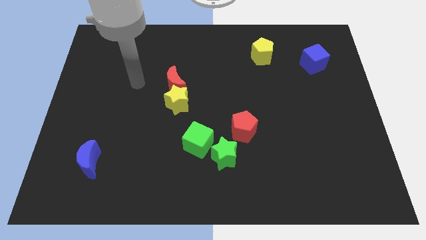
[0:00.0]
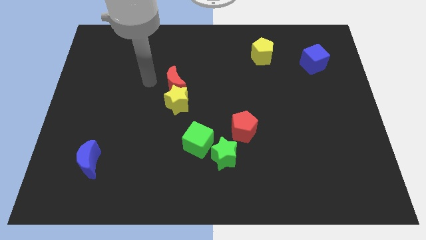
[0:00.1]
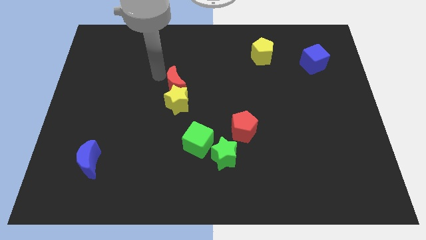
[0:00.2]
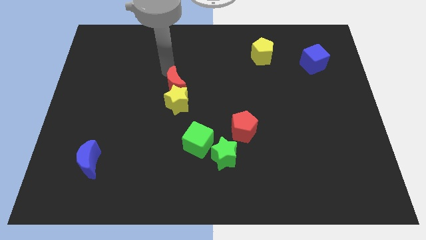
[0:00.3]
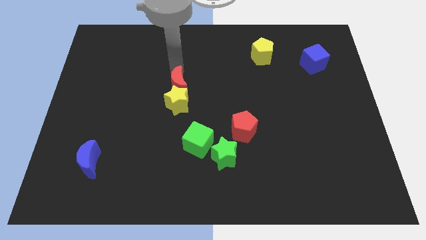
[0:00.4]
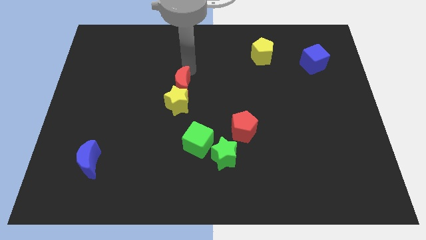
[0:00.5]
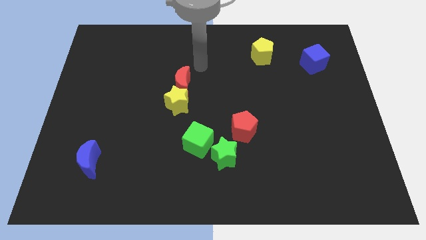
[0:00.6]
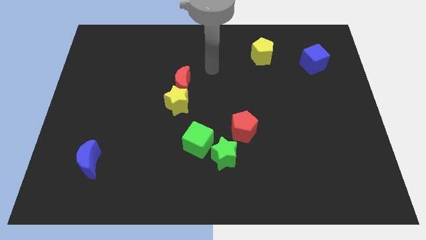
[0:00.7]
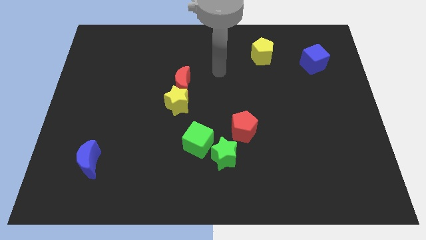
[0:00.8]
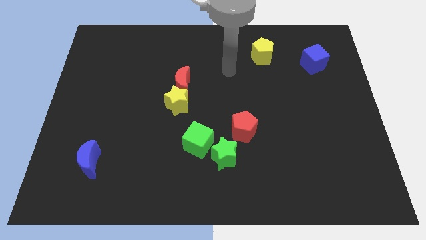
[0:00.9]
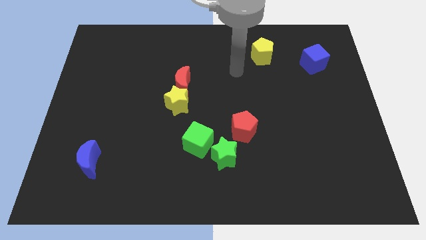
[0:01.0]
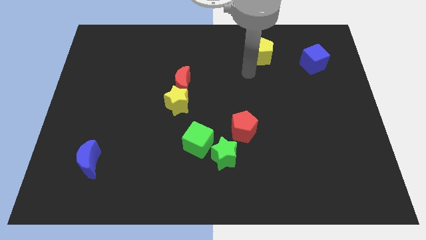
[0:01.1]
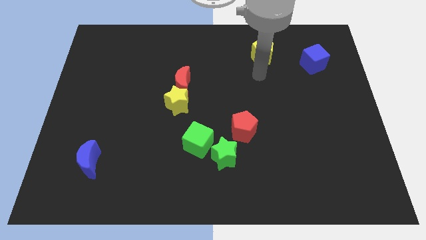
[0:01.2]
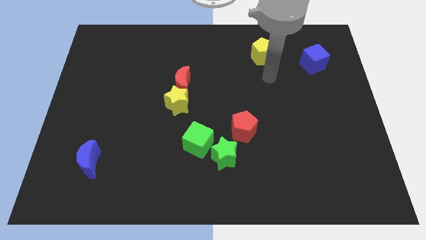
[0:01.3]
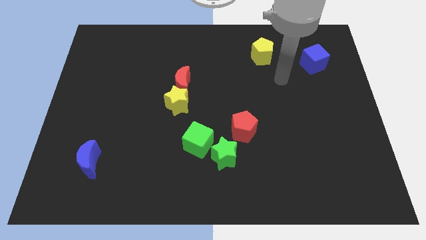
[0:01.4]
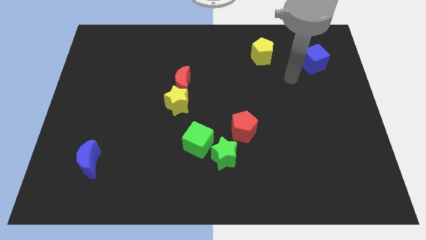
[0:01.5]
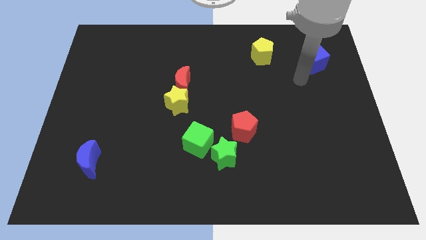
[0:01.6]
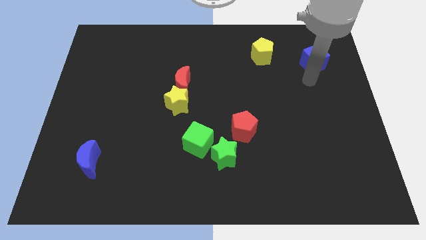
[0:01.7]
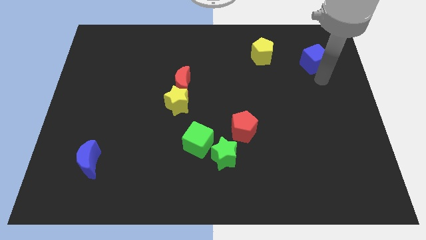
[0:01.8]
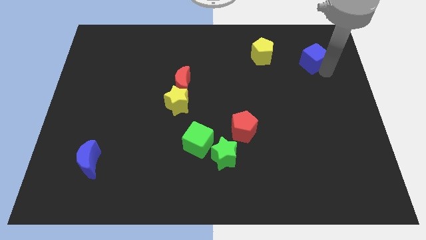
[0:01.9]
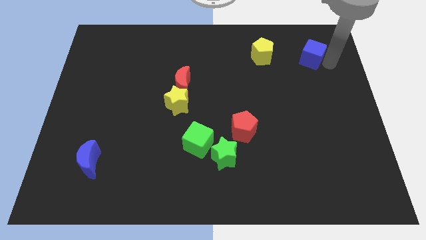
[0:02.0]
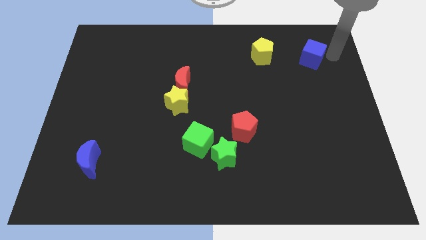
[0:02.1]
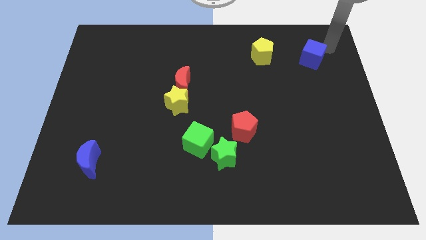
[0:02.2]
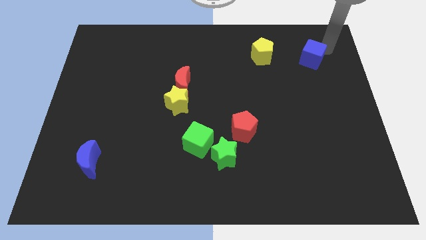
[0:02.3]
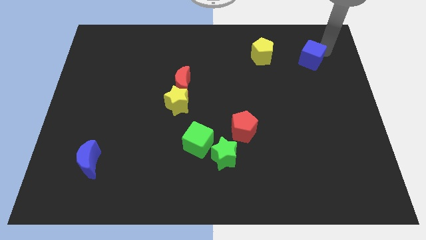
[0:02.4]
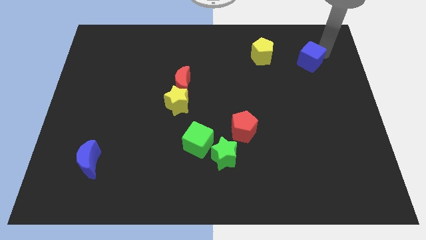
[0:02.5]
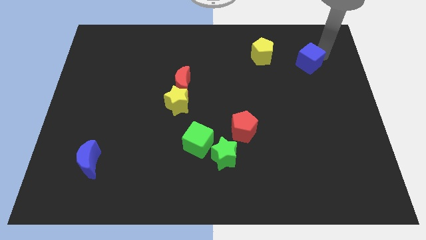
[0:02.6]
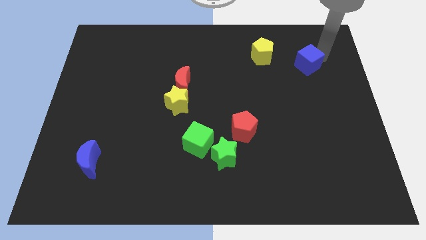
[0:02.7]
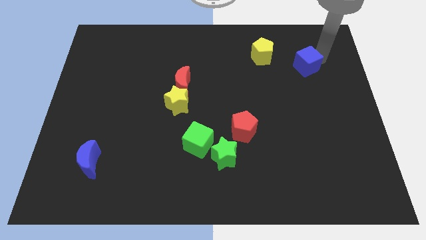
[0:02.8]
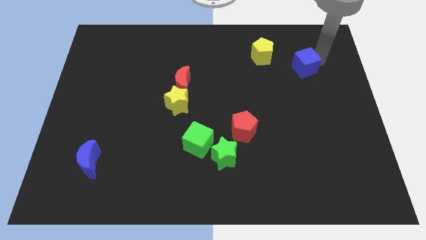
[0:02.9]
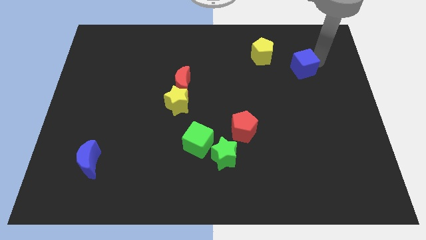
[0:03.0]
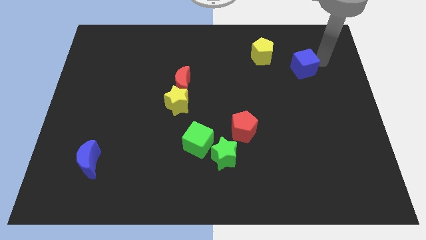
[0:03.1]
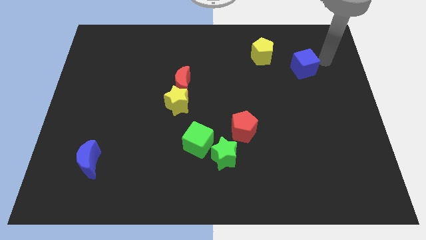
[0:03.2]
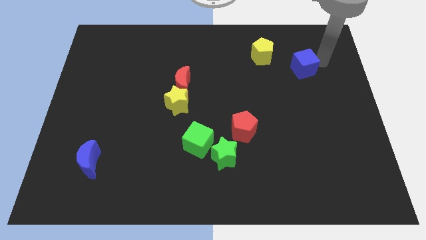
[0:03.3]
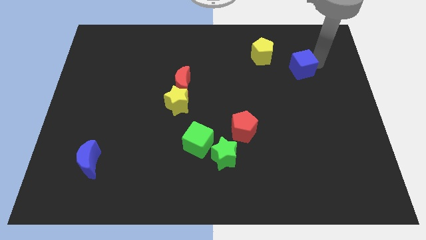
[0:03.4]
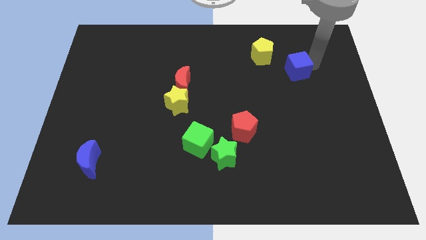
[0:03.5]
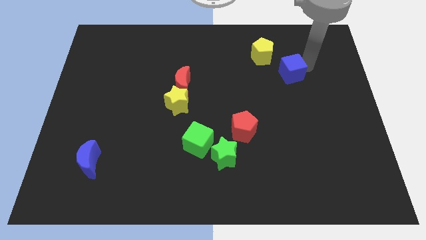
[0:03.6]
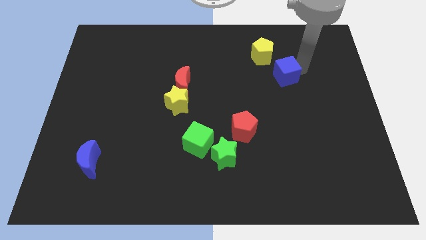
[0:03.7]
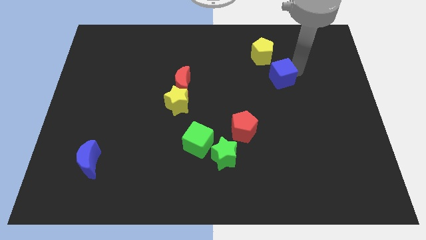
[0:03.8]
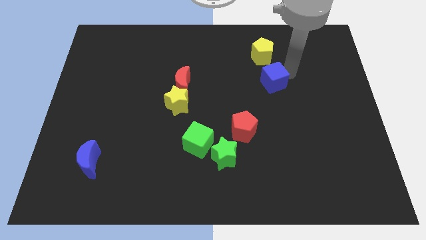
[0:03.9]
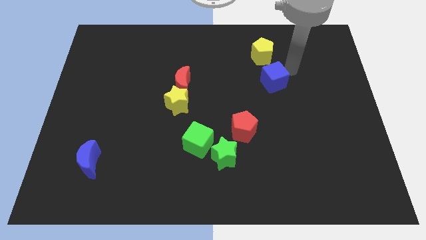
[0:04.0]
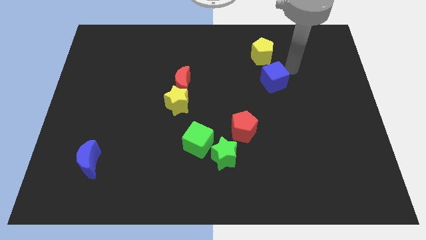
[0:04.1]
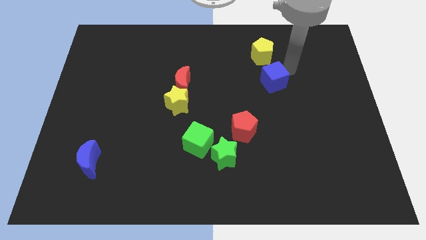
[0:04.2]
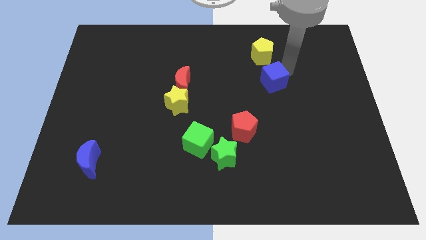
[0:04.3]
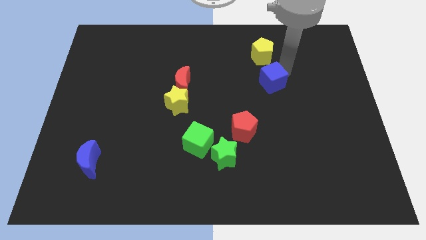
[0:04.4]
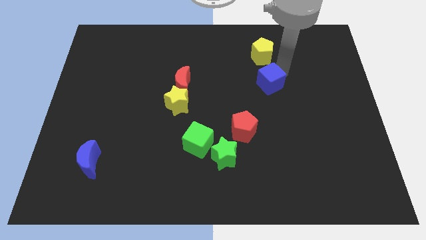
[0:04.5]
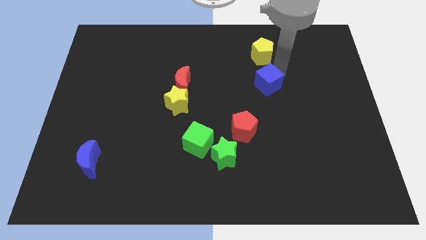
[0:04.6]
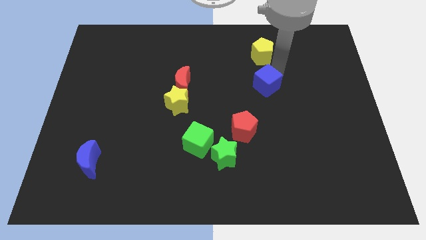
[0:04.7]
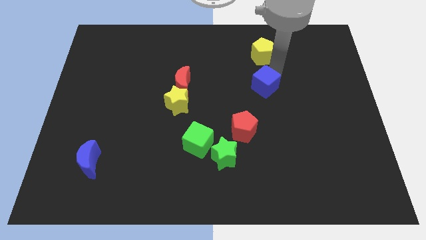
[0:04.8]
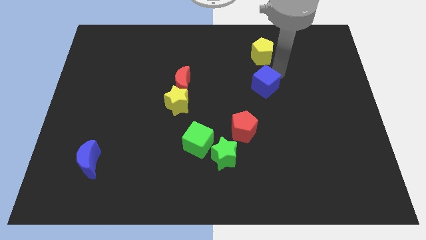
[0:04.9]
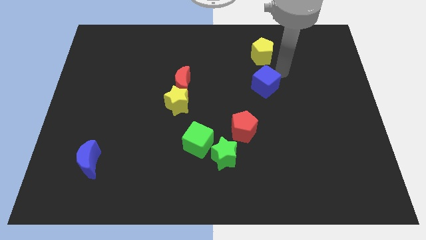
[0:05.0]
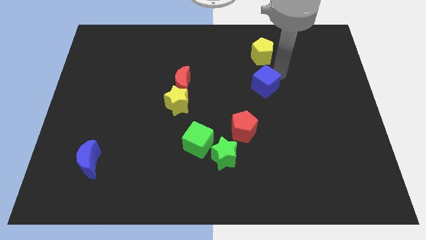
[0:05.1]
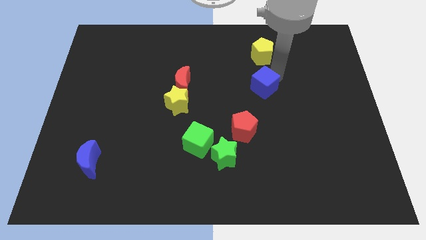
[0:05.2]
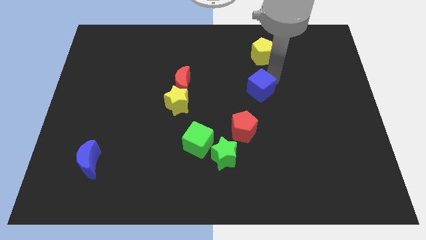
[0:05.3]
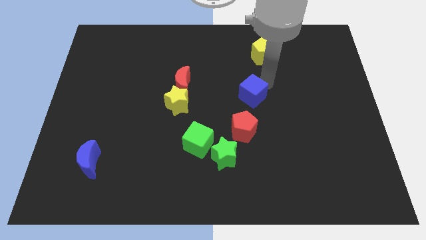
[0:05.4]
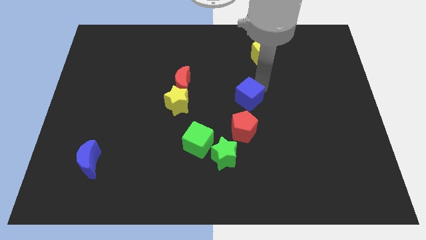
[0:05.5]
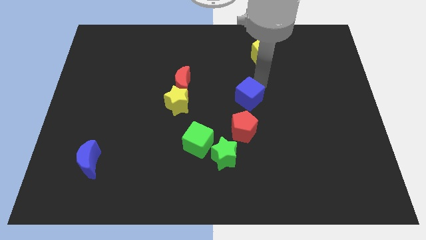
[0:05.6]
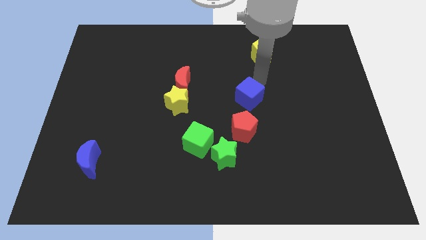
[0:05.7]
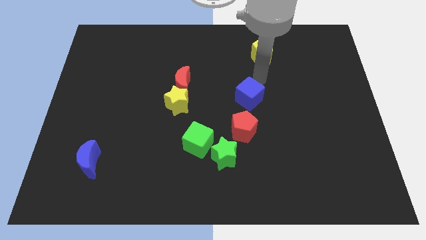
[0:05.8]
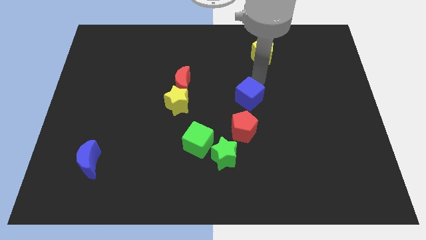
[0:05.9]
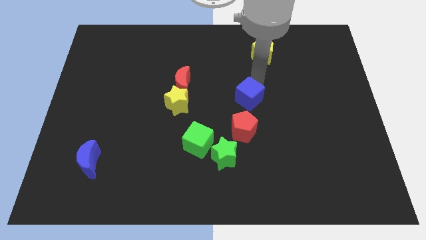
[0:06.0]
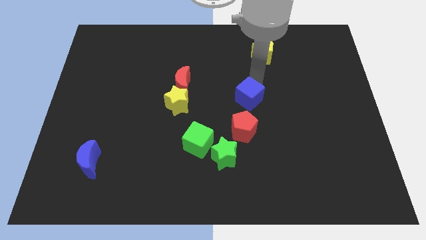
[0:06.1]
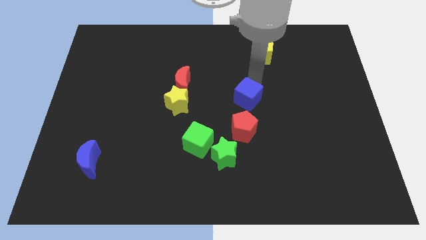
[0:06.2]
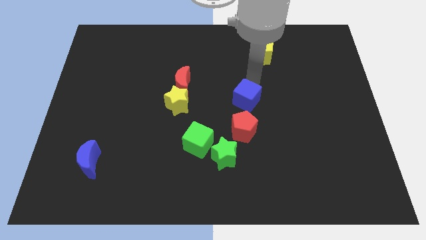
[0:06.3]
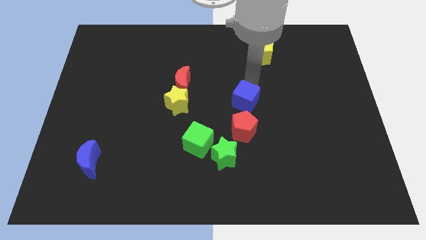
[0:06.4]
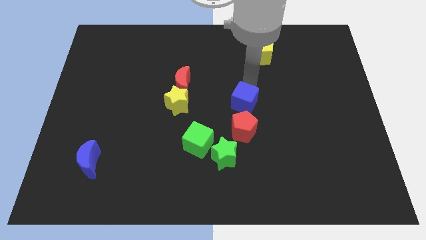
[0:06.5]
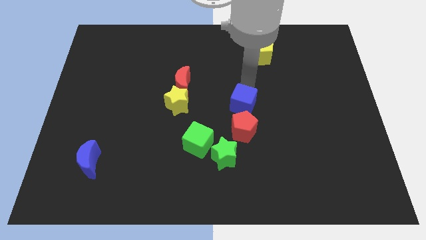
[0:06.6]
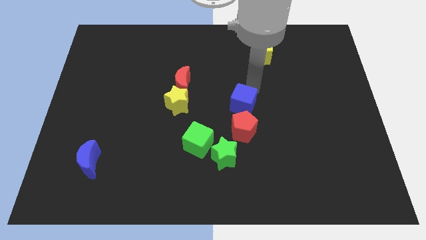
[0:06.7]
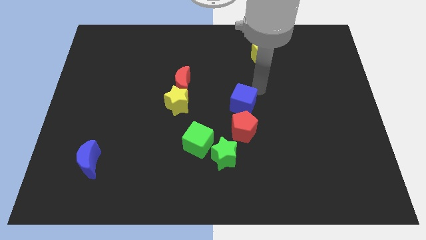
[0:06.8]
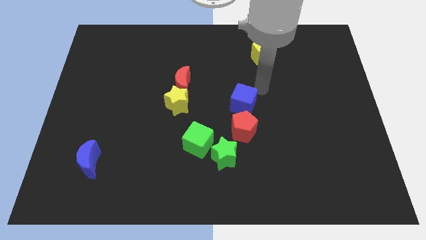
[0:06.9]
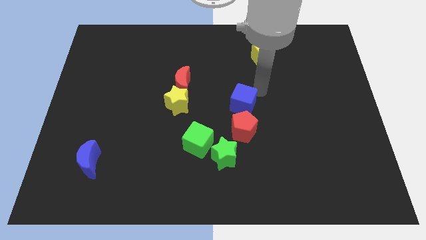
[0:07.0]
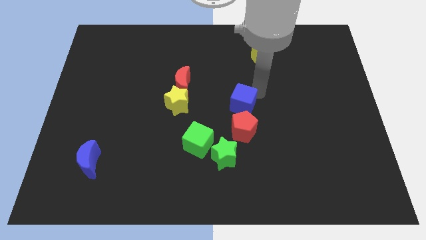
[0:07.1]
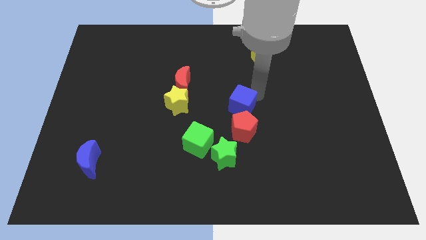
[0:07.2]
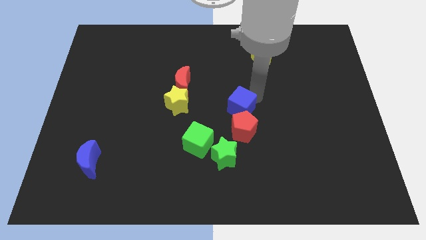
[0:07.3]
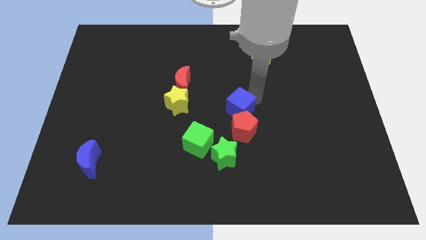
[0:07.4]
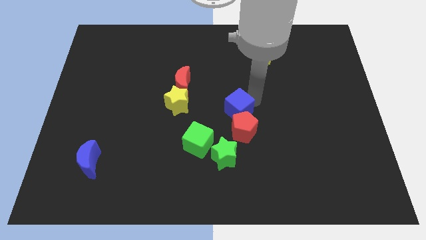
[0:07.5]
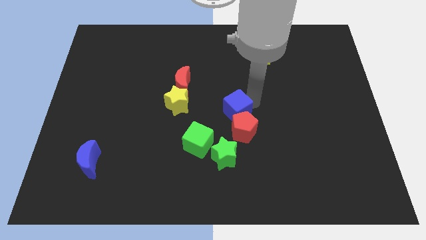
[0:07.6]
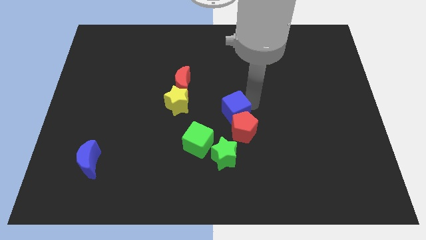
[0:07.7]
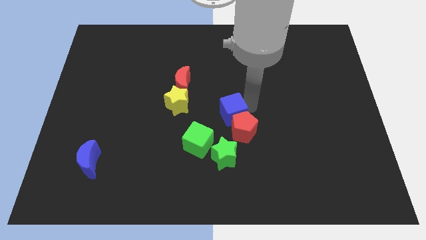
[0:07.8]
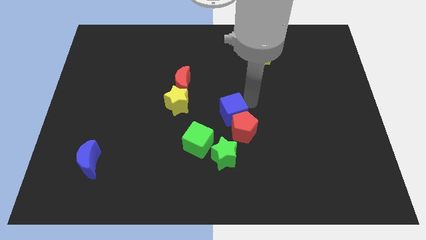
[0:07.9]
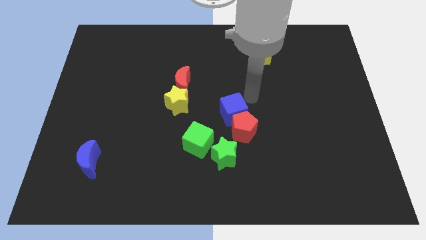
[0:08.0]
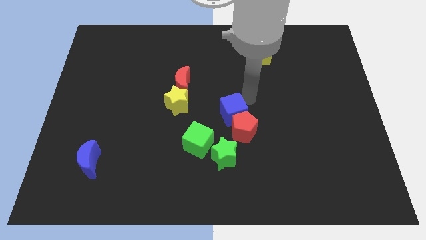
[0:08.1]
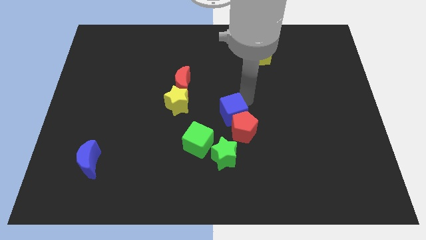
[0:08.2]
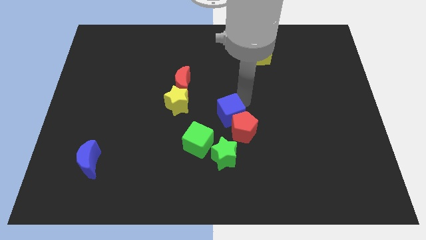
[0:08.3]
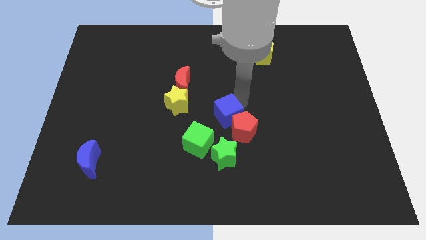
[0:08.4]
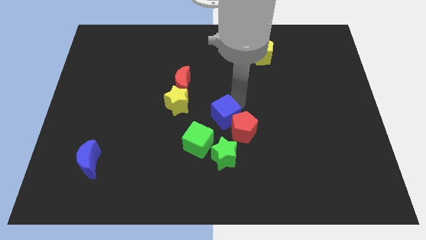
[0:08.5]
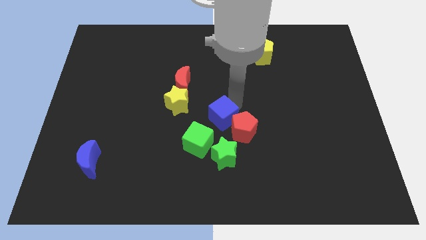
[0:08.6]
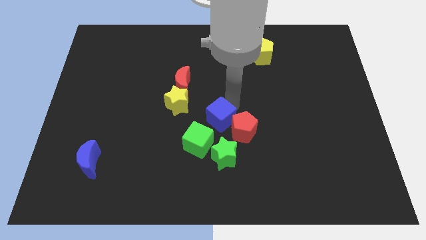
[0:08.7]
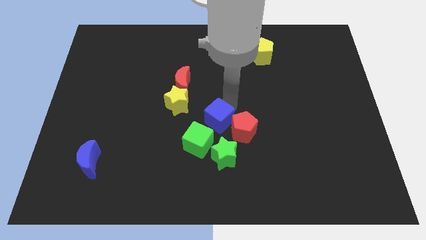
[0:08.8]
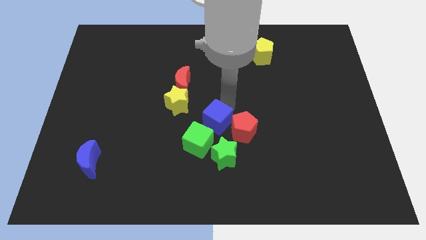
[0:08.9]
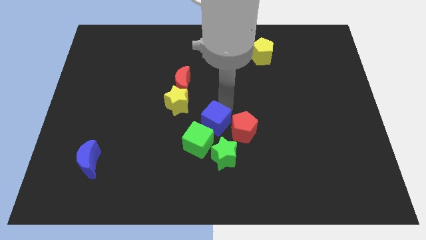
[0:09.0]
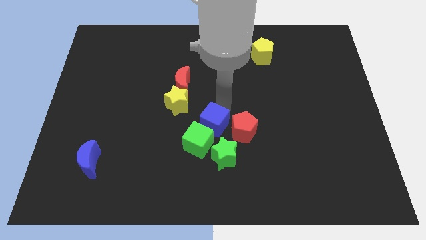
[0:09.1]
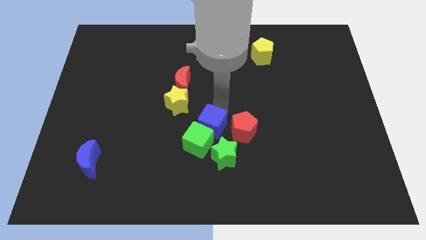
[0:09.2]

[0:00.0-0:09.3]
move the blue cube towards the green cube
